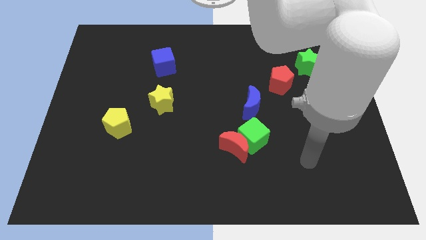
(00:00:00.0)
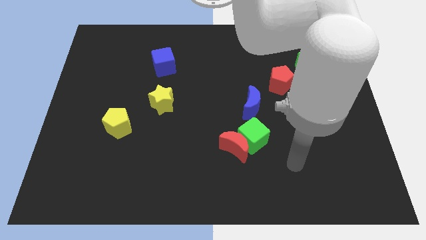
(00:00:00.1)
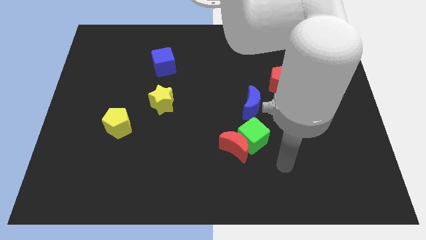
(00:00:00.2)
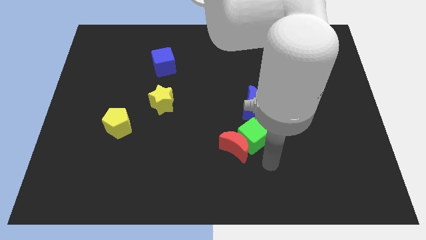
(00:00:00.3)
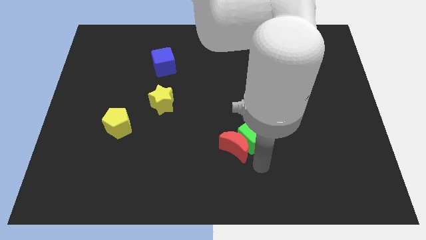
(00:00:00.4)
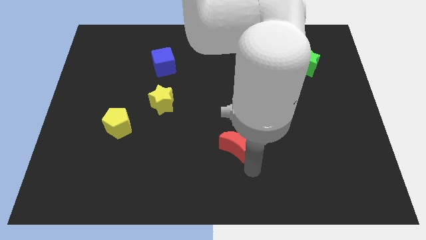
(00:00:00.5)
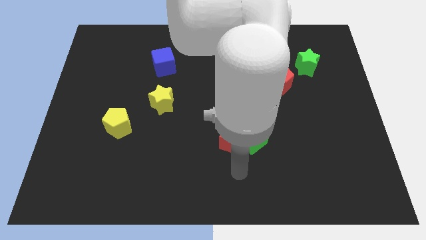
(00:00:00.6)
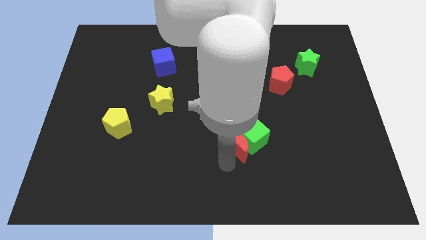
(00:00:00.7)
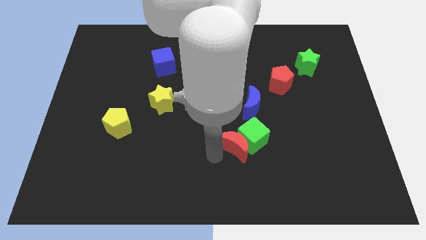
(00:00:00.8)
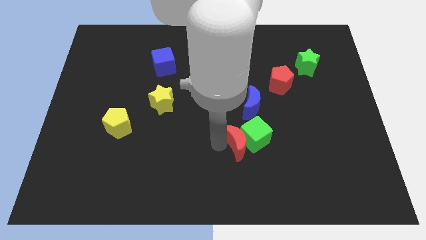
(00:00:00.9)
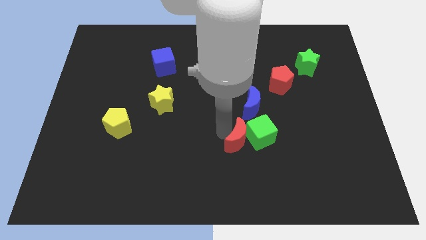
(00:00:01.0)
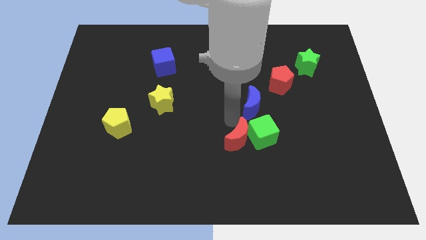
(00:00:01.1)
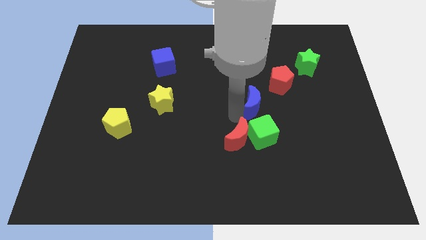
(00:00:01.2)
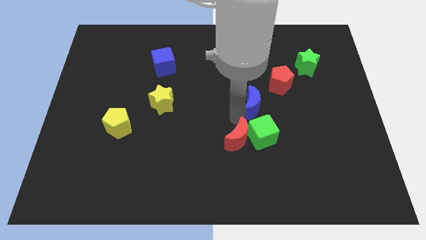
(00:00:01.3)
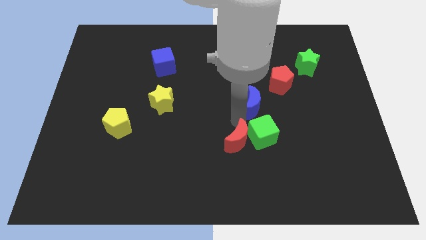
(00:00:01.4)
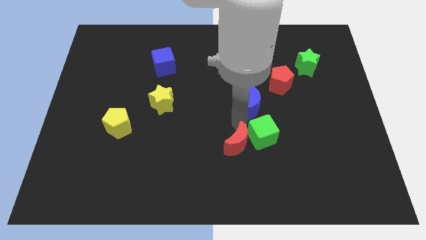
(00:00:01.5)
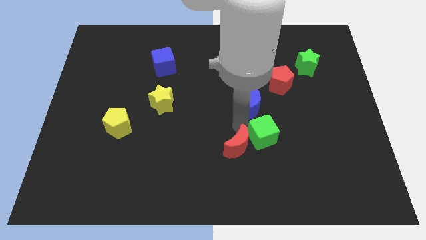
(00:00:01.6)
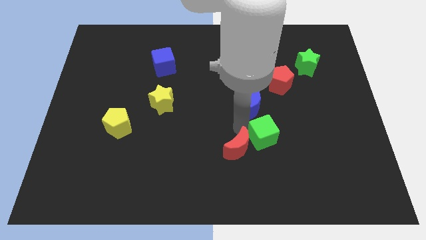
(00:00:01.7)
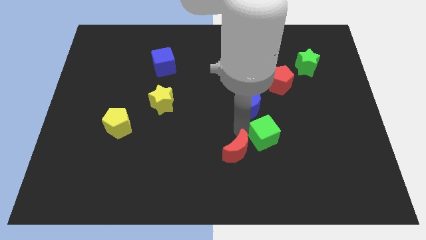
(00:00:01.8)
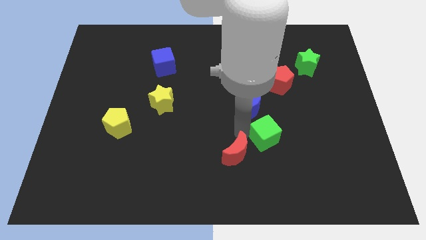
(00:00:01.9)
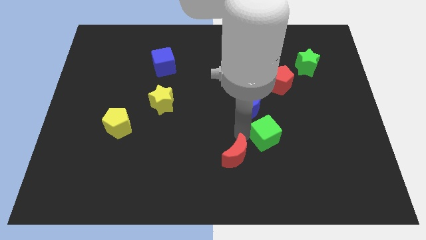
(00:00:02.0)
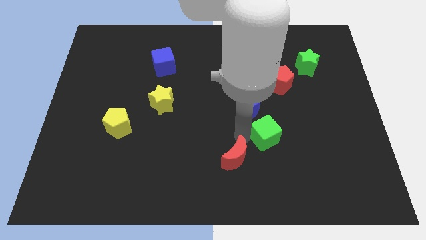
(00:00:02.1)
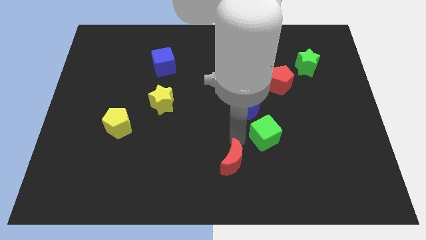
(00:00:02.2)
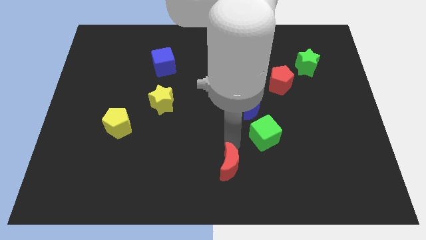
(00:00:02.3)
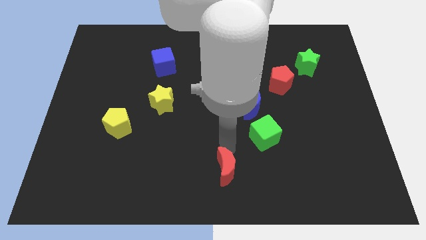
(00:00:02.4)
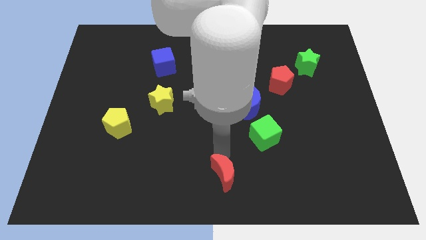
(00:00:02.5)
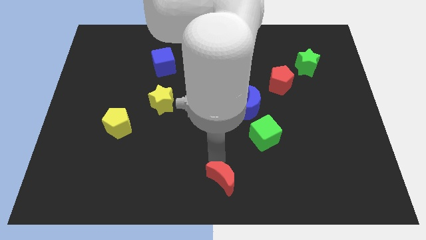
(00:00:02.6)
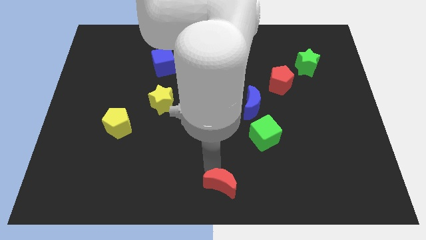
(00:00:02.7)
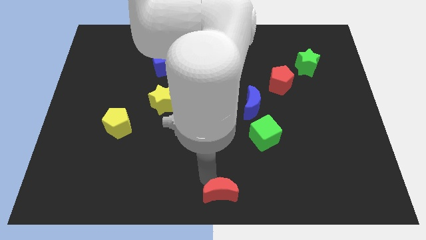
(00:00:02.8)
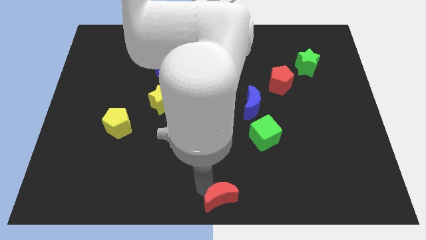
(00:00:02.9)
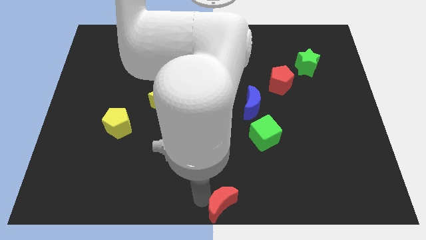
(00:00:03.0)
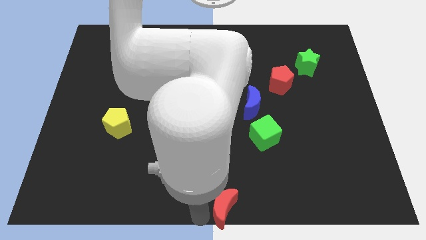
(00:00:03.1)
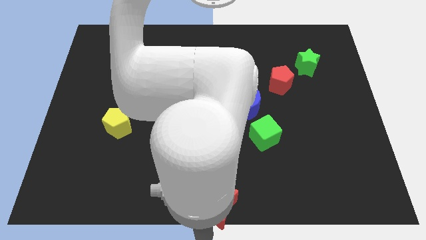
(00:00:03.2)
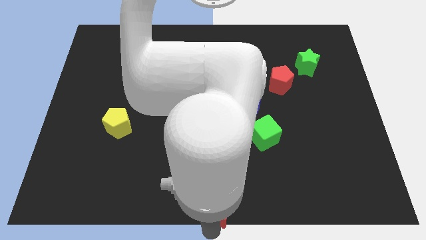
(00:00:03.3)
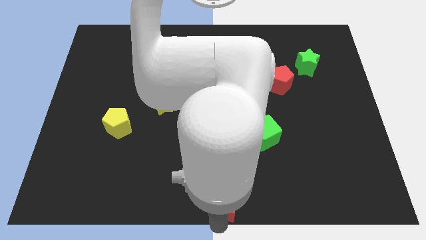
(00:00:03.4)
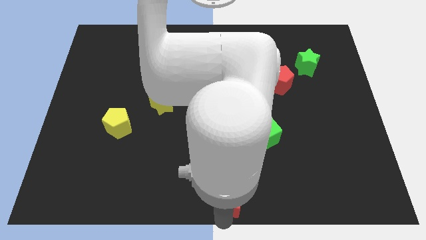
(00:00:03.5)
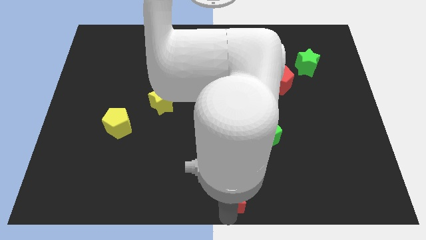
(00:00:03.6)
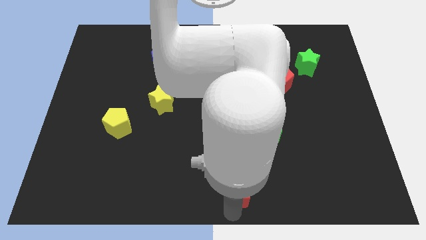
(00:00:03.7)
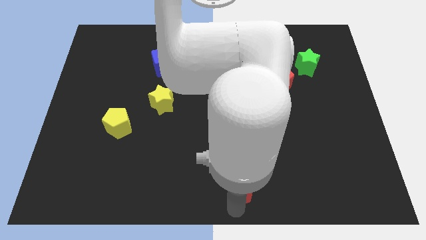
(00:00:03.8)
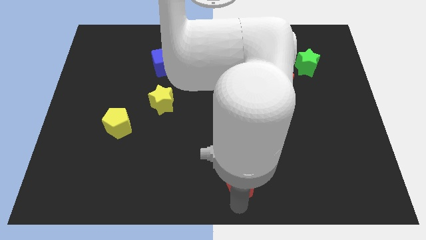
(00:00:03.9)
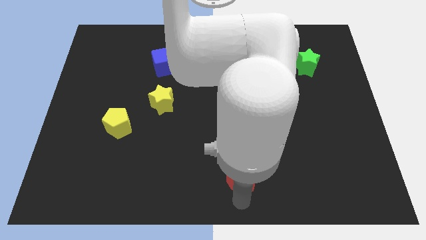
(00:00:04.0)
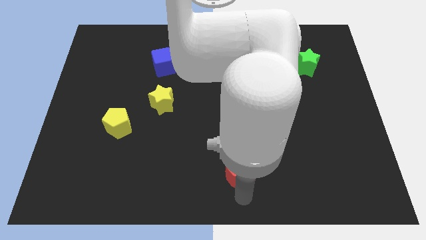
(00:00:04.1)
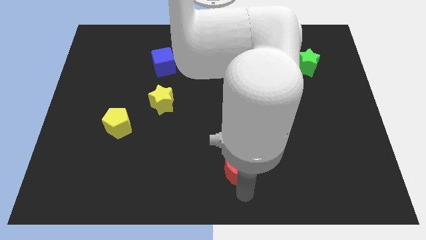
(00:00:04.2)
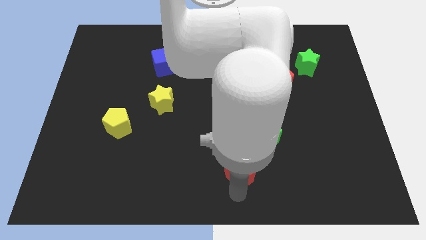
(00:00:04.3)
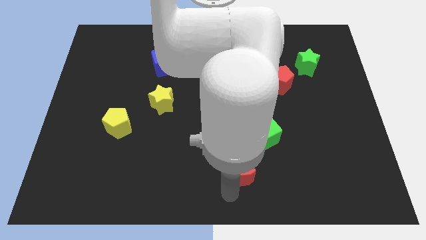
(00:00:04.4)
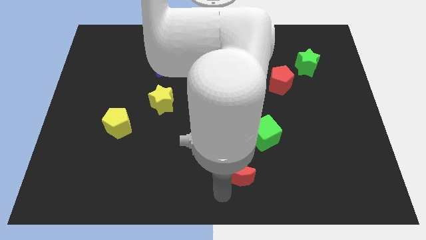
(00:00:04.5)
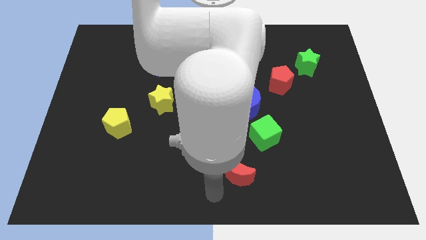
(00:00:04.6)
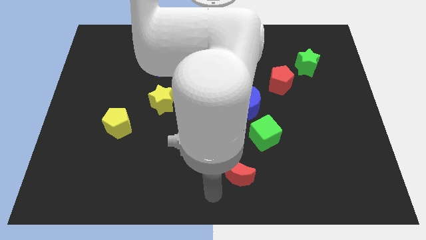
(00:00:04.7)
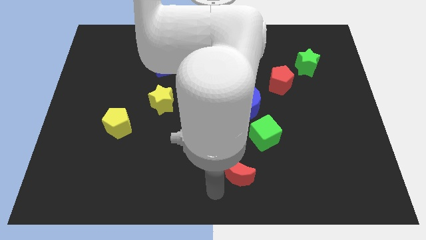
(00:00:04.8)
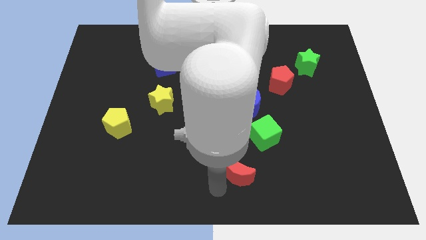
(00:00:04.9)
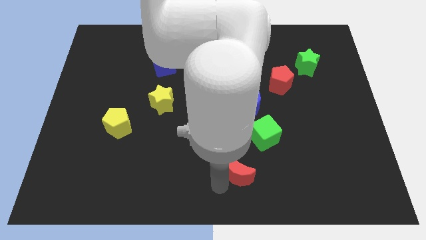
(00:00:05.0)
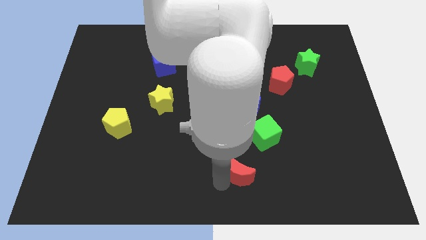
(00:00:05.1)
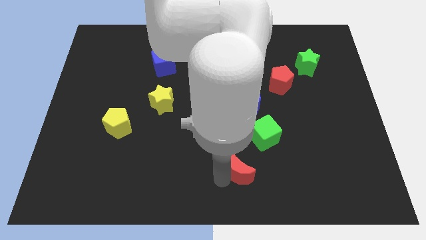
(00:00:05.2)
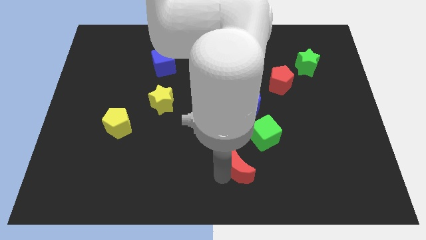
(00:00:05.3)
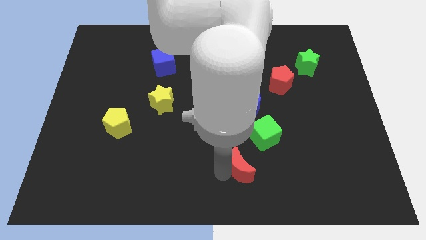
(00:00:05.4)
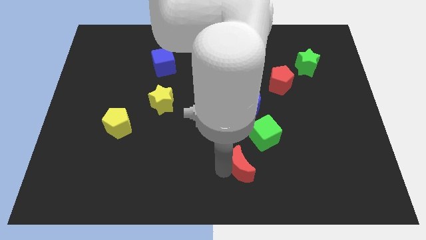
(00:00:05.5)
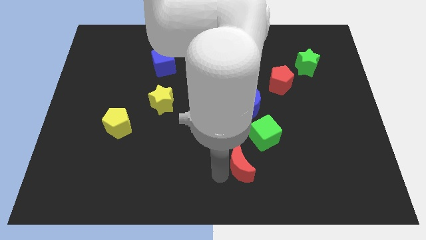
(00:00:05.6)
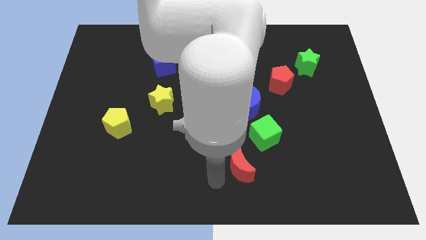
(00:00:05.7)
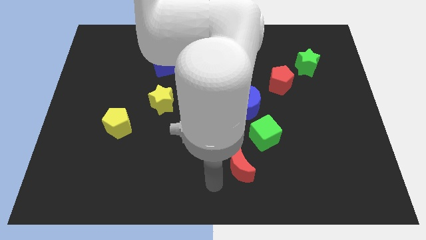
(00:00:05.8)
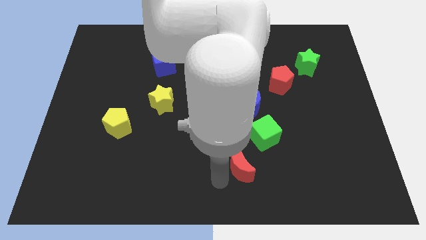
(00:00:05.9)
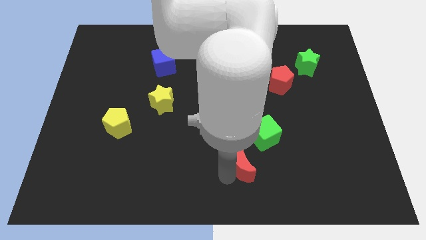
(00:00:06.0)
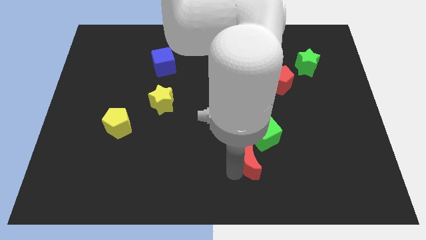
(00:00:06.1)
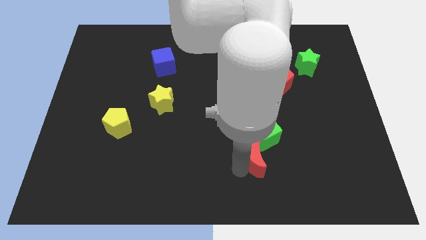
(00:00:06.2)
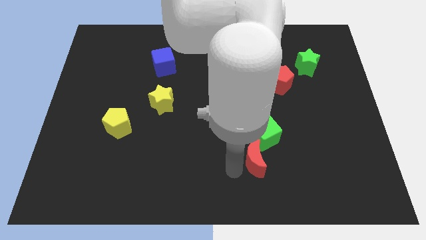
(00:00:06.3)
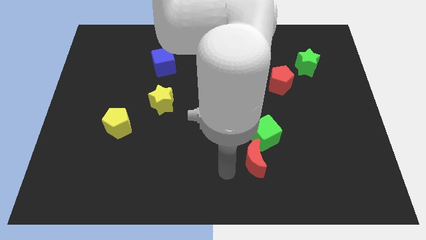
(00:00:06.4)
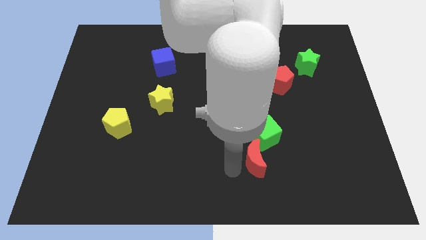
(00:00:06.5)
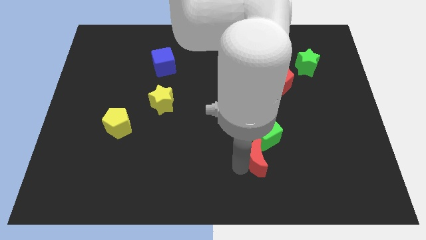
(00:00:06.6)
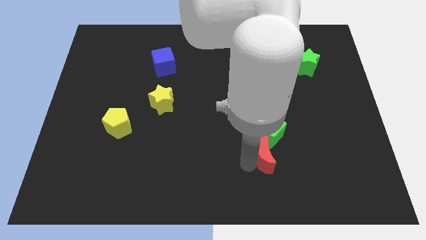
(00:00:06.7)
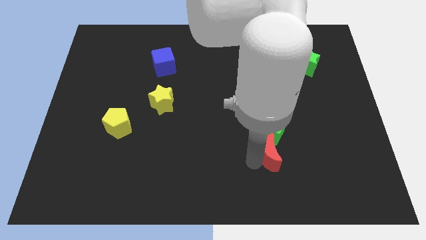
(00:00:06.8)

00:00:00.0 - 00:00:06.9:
slightly push the red moon to the right

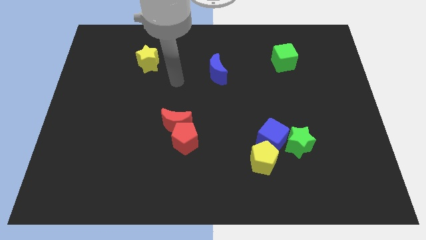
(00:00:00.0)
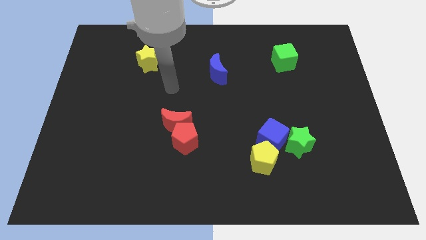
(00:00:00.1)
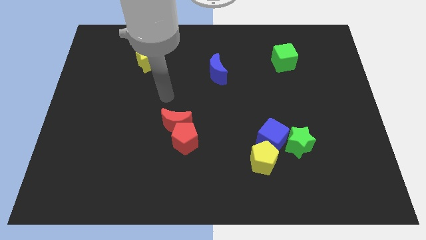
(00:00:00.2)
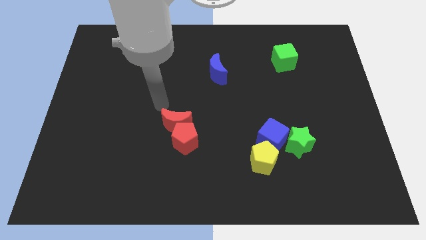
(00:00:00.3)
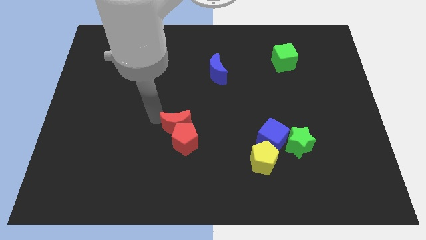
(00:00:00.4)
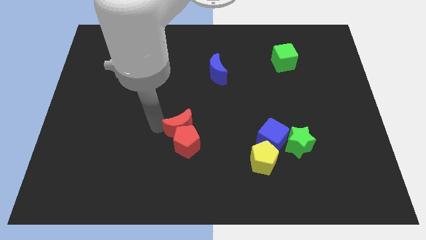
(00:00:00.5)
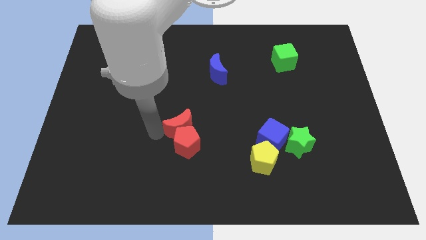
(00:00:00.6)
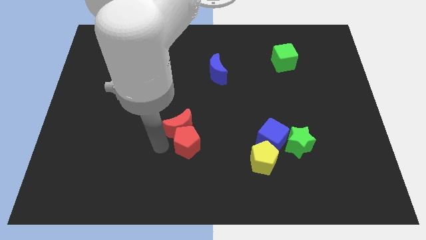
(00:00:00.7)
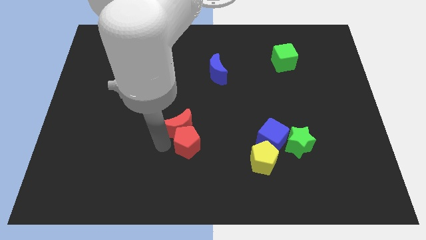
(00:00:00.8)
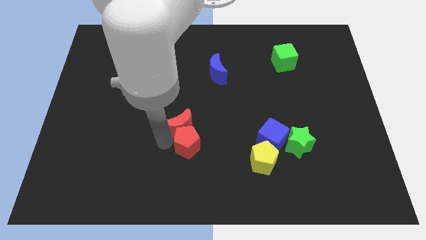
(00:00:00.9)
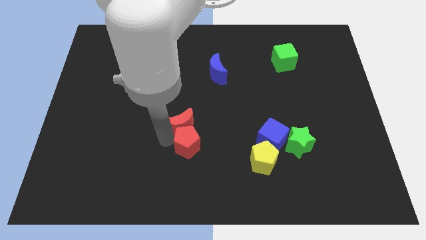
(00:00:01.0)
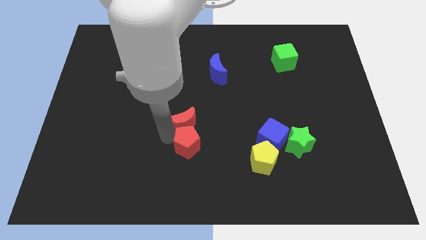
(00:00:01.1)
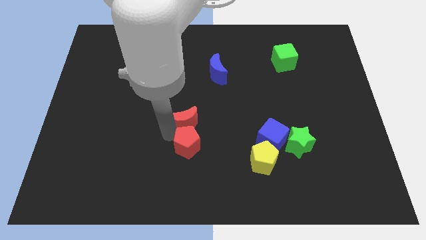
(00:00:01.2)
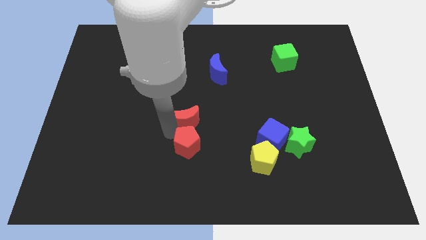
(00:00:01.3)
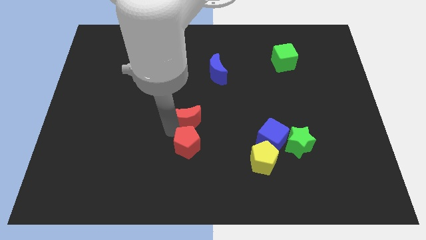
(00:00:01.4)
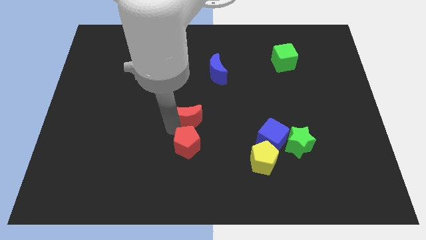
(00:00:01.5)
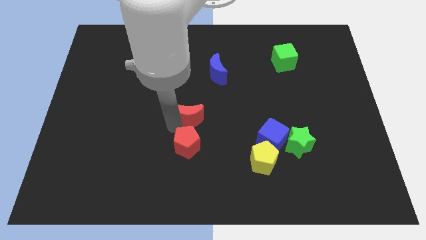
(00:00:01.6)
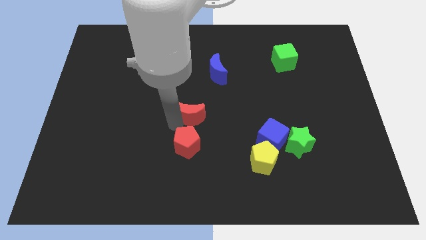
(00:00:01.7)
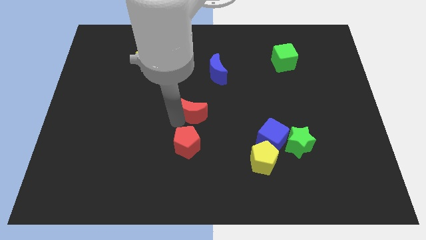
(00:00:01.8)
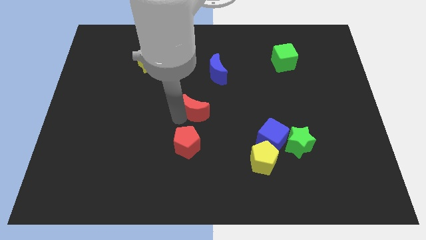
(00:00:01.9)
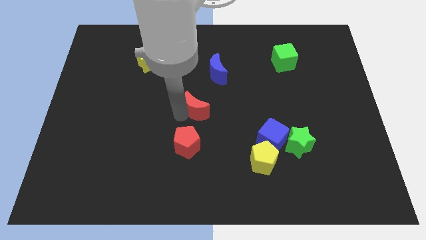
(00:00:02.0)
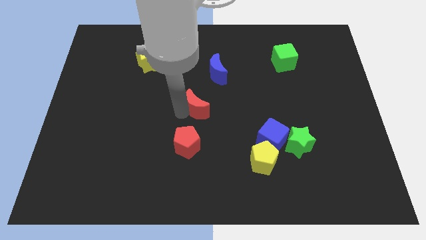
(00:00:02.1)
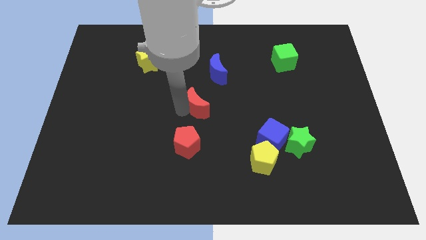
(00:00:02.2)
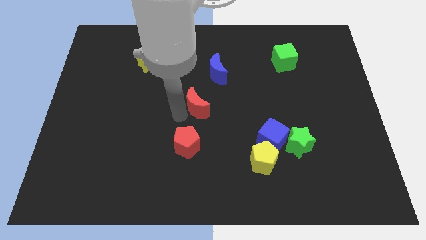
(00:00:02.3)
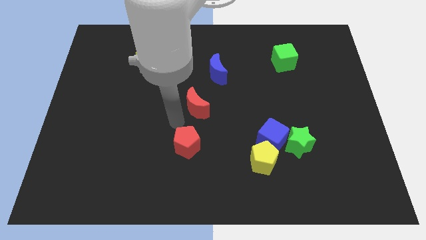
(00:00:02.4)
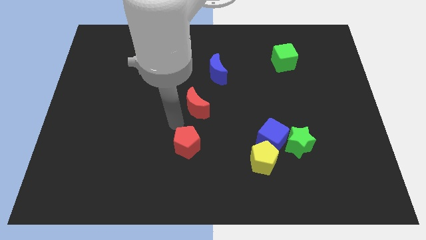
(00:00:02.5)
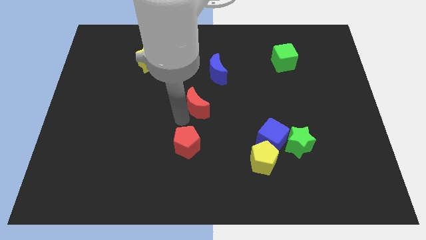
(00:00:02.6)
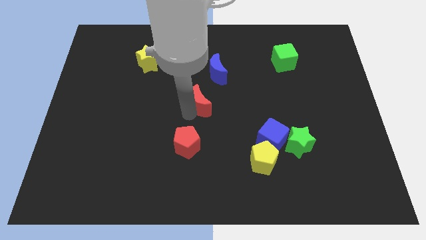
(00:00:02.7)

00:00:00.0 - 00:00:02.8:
slide the red moon up and then right a little
